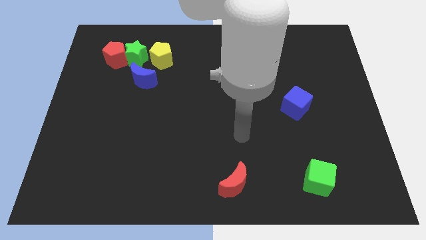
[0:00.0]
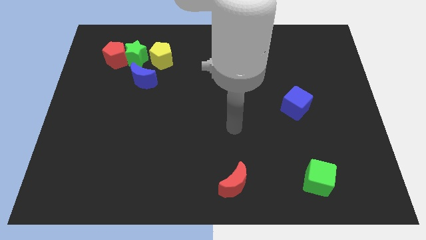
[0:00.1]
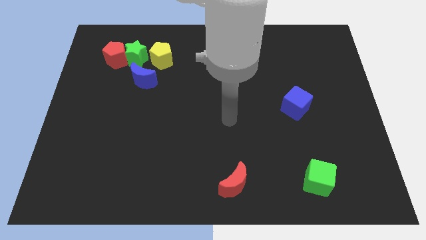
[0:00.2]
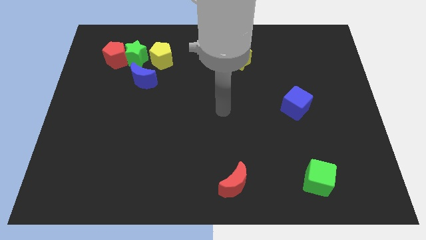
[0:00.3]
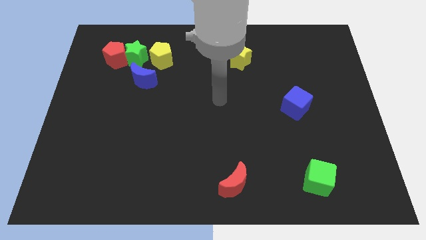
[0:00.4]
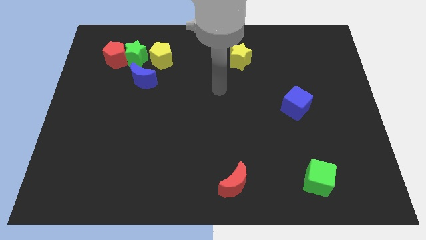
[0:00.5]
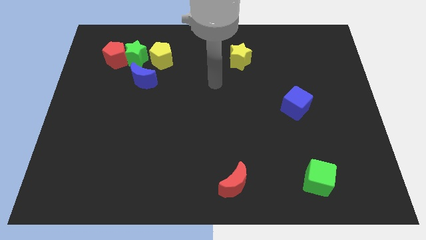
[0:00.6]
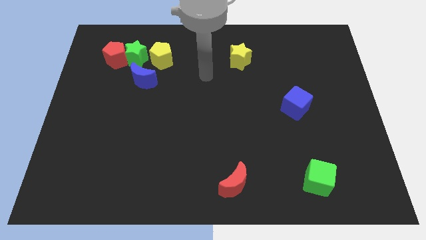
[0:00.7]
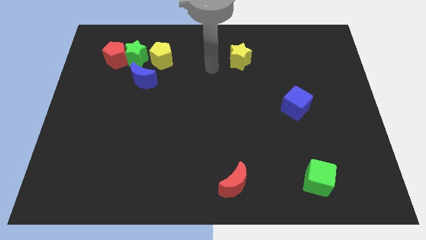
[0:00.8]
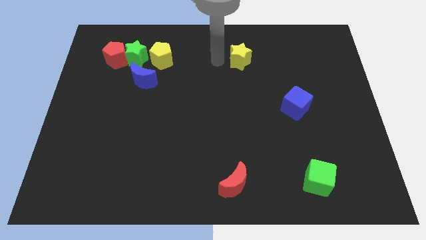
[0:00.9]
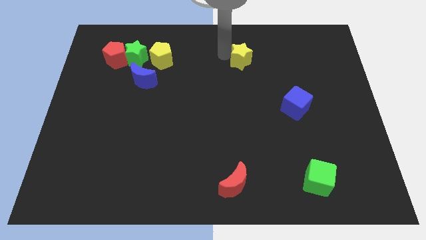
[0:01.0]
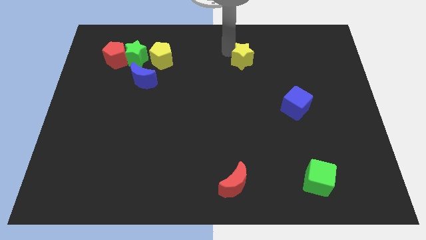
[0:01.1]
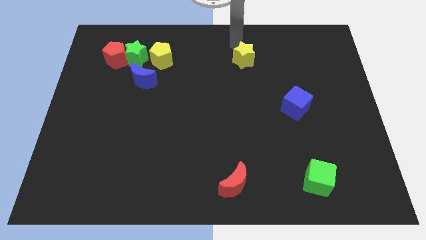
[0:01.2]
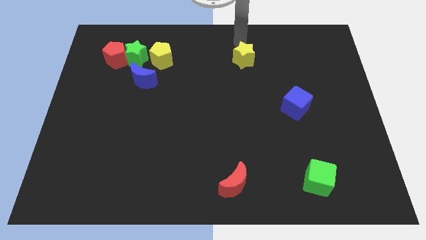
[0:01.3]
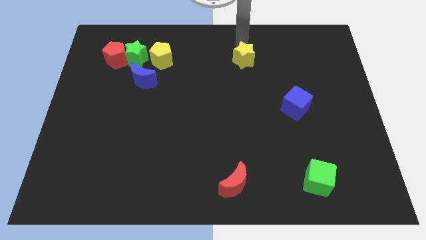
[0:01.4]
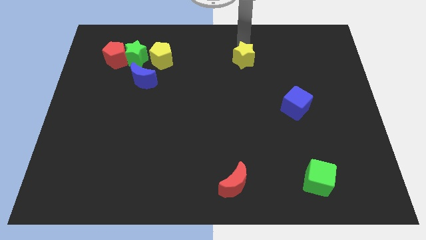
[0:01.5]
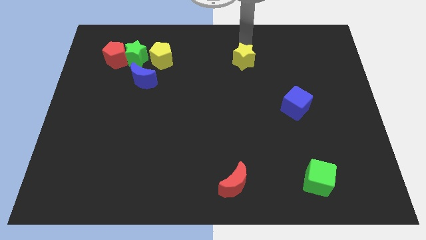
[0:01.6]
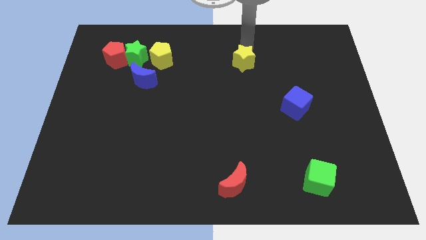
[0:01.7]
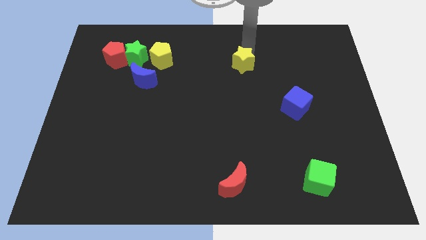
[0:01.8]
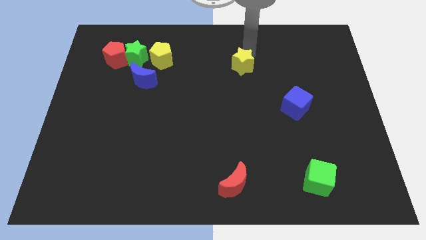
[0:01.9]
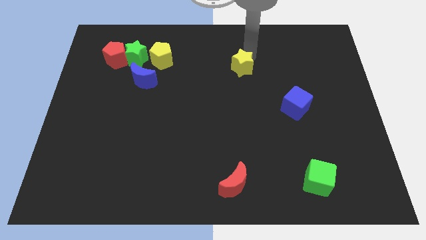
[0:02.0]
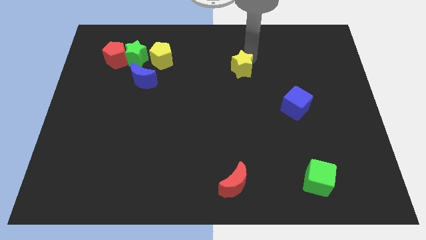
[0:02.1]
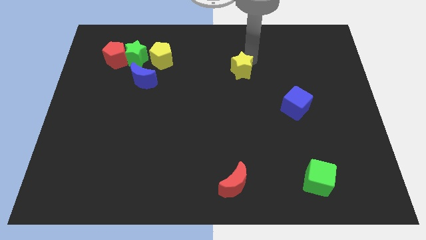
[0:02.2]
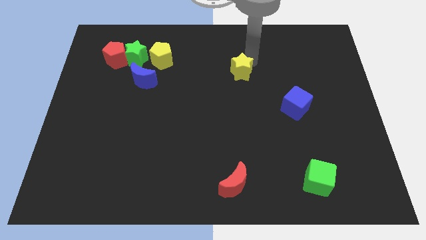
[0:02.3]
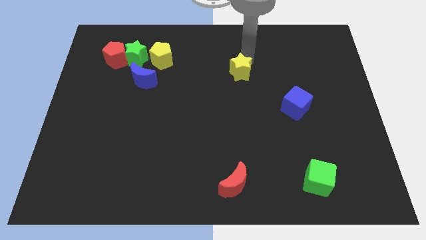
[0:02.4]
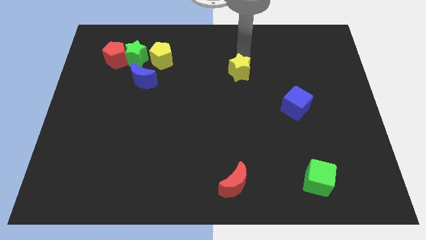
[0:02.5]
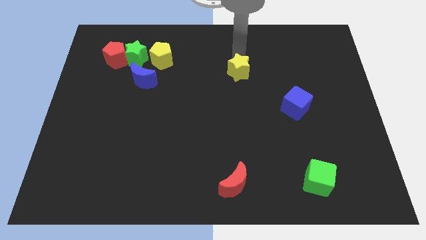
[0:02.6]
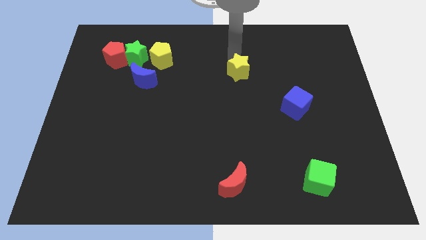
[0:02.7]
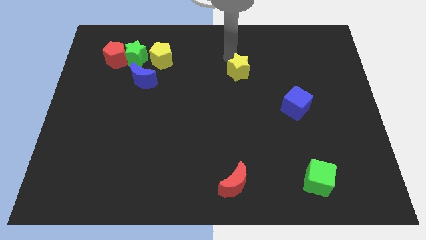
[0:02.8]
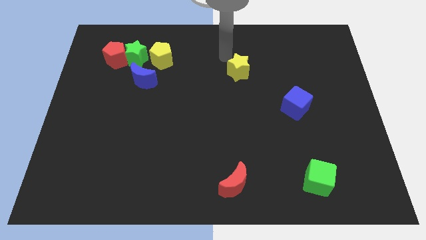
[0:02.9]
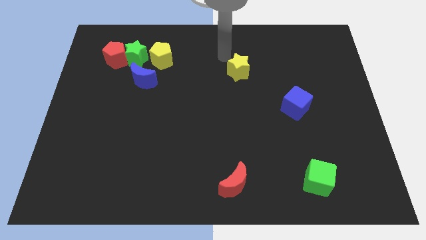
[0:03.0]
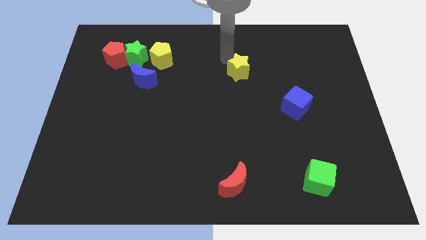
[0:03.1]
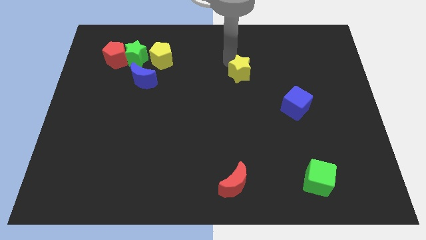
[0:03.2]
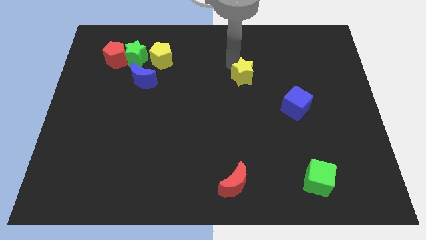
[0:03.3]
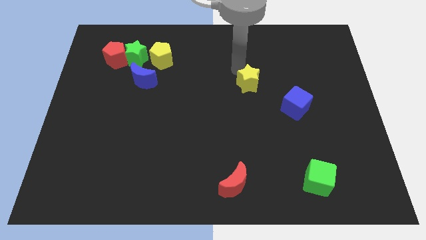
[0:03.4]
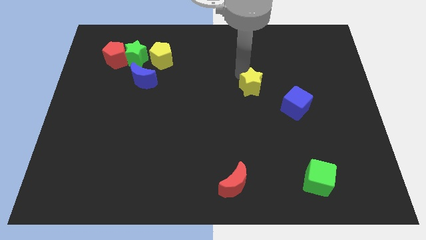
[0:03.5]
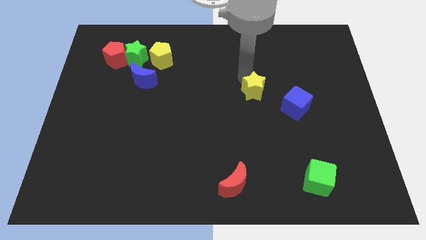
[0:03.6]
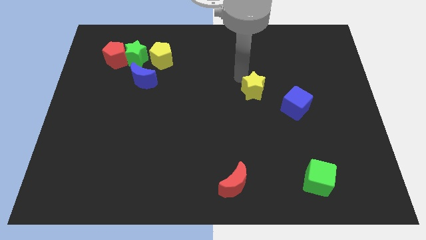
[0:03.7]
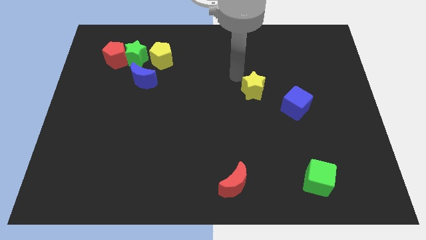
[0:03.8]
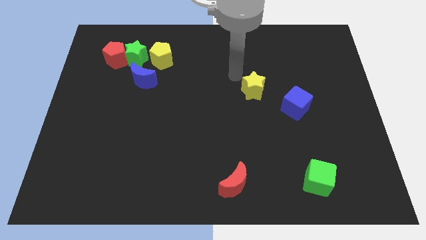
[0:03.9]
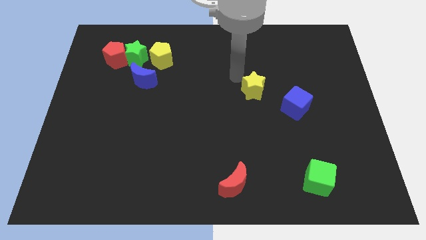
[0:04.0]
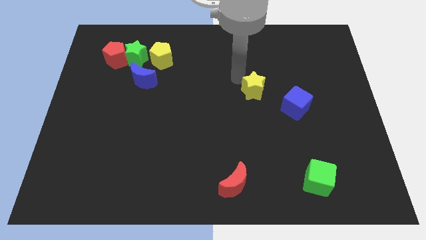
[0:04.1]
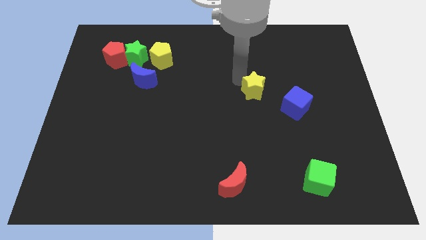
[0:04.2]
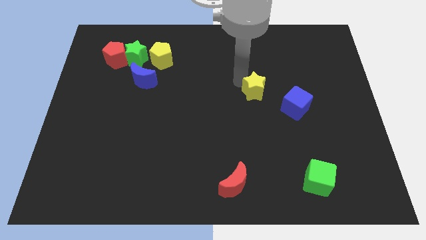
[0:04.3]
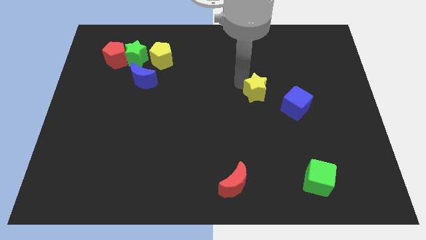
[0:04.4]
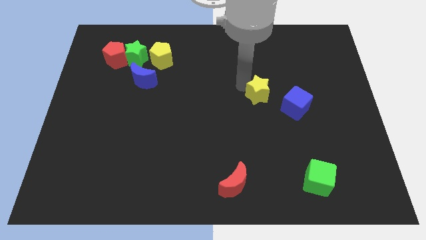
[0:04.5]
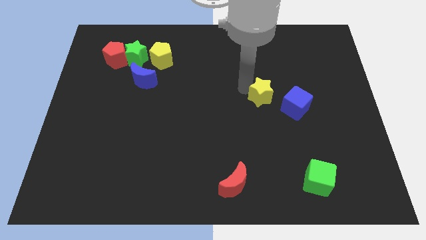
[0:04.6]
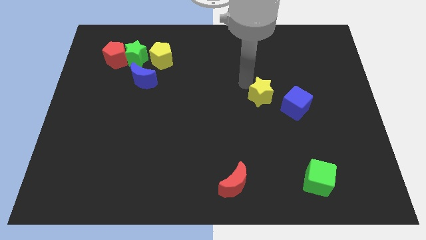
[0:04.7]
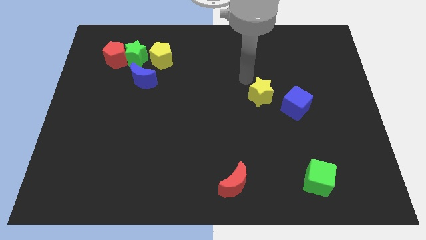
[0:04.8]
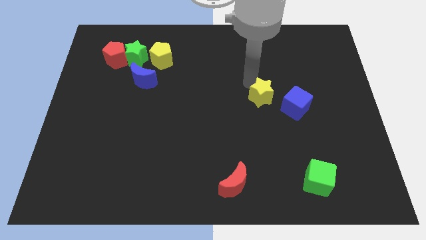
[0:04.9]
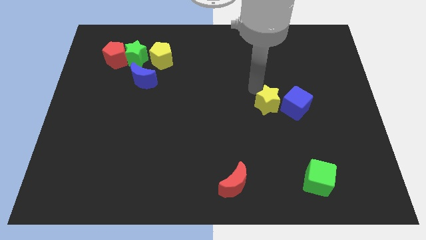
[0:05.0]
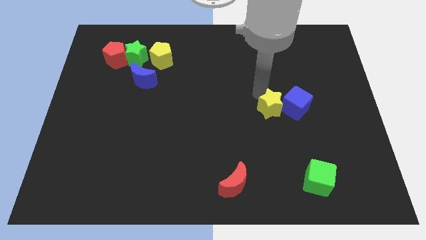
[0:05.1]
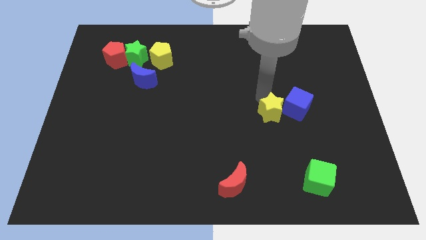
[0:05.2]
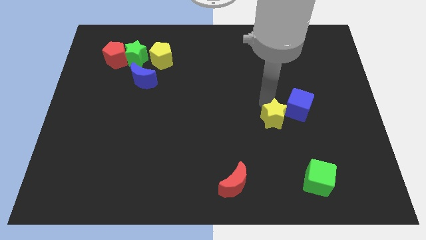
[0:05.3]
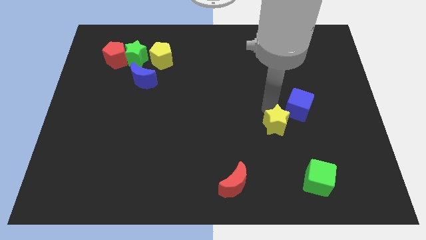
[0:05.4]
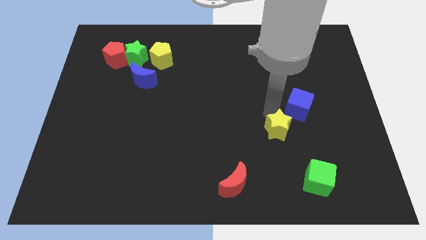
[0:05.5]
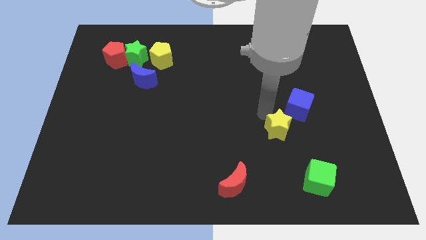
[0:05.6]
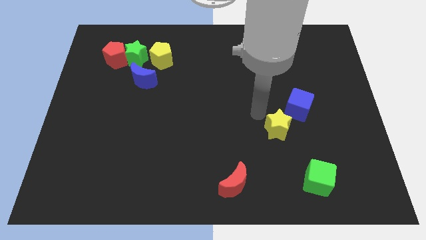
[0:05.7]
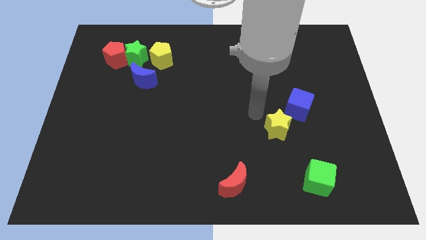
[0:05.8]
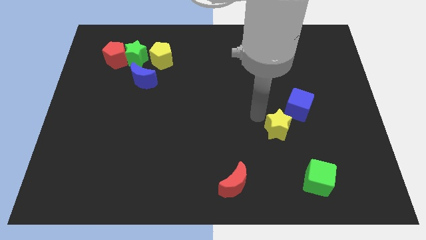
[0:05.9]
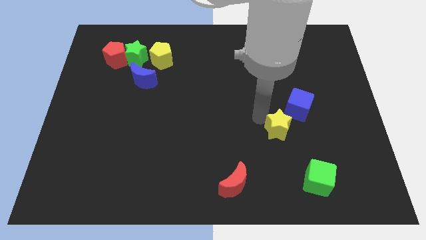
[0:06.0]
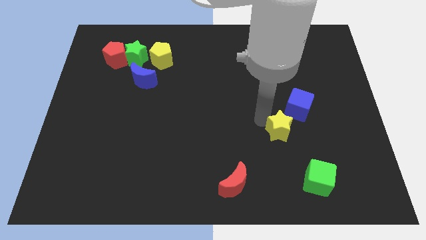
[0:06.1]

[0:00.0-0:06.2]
push the yellow star to the bottom side of the blue cube

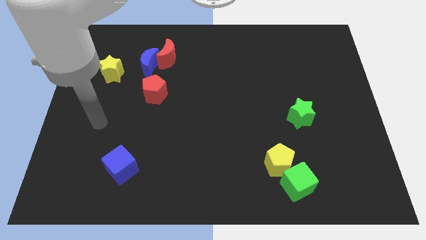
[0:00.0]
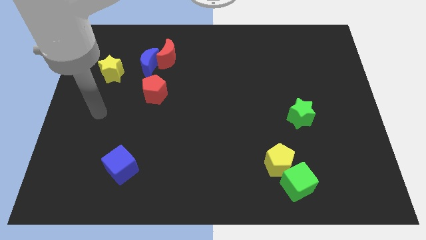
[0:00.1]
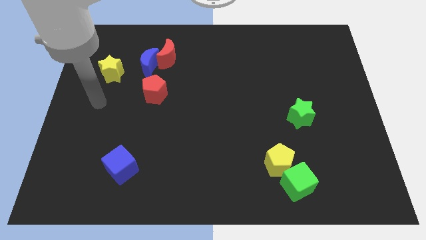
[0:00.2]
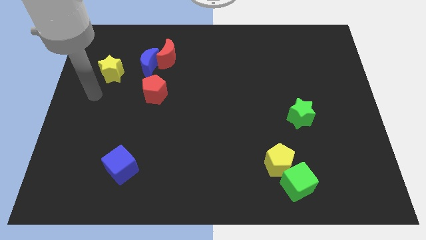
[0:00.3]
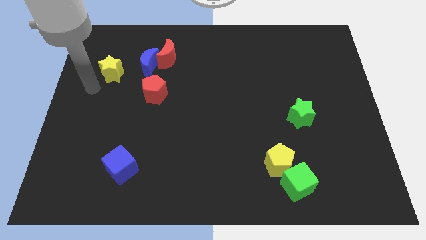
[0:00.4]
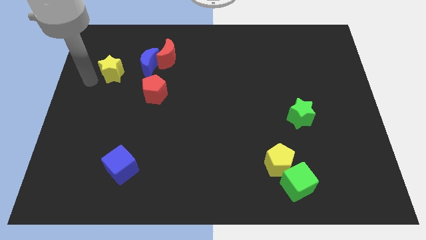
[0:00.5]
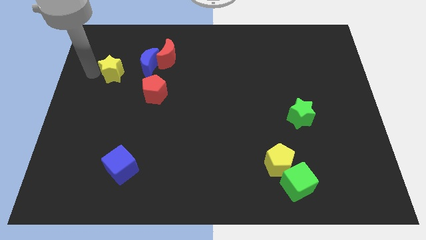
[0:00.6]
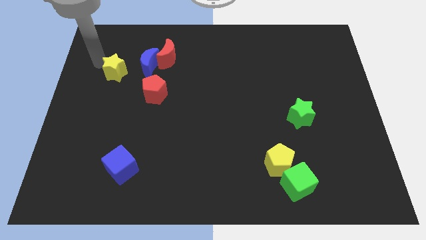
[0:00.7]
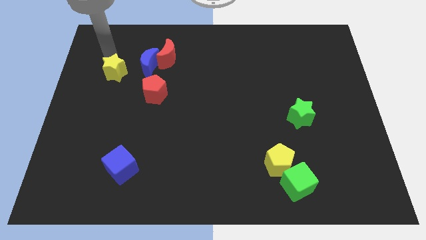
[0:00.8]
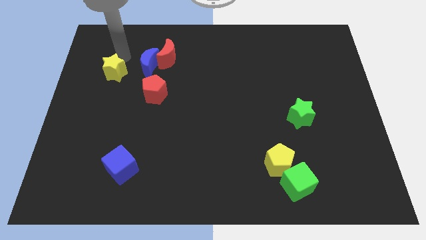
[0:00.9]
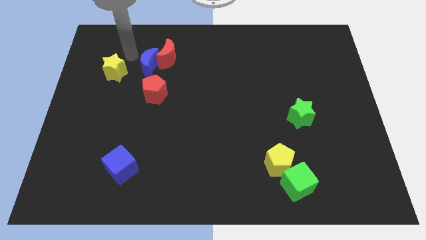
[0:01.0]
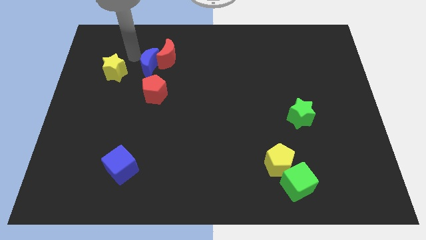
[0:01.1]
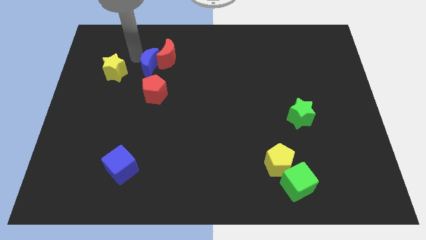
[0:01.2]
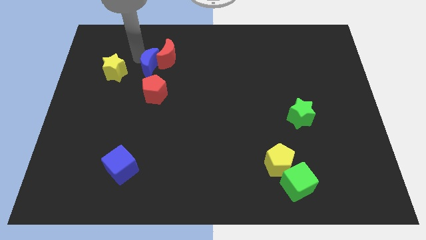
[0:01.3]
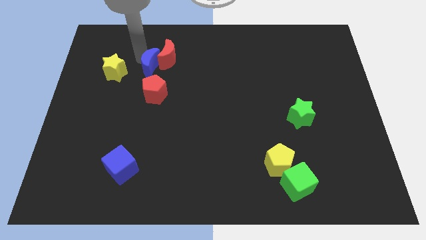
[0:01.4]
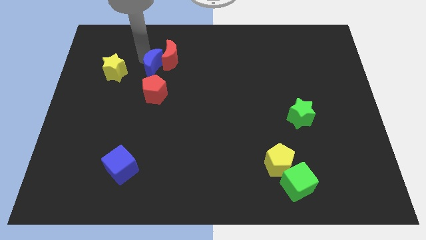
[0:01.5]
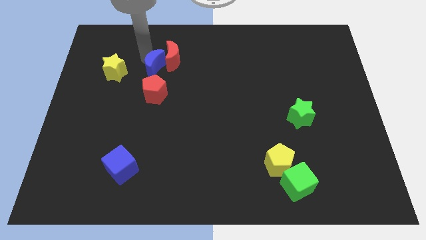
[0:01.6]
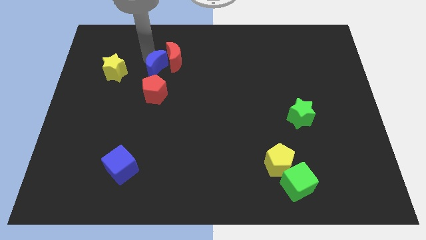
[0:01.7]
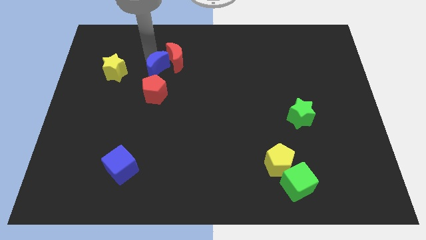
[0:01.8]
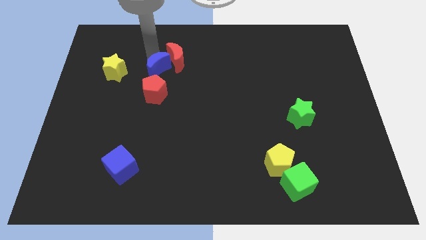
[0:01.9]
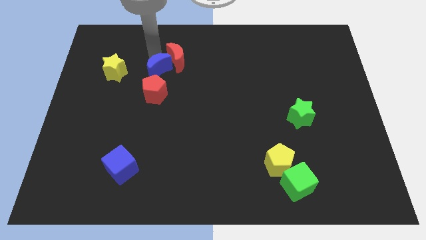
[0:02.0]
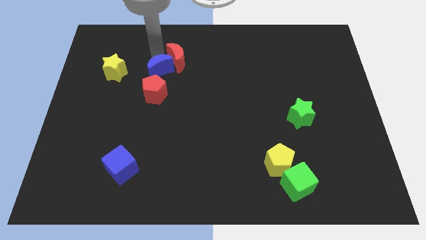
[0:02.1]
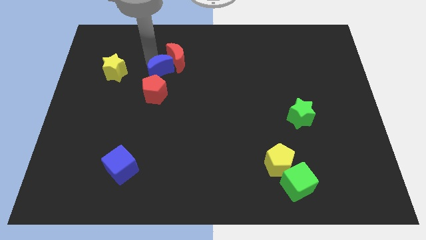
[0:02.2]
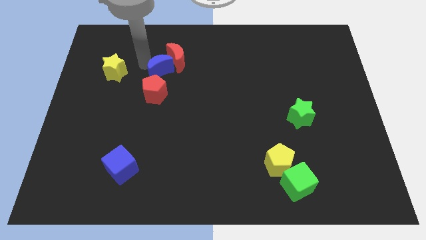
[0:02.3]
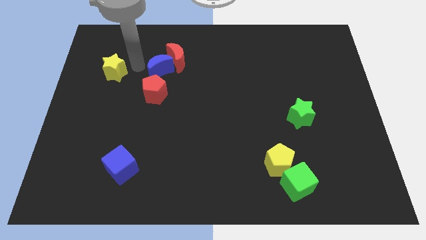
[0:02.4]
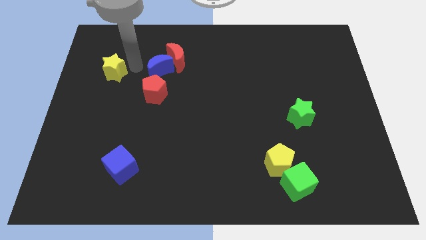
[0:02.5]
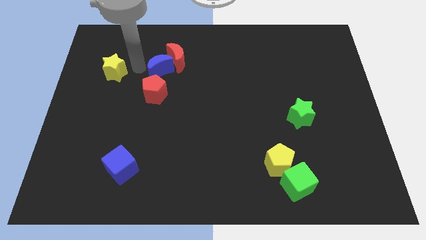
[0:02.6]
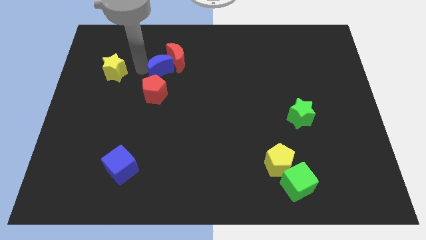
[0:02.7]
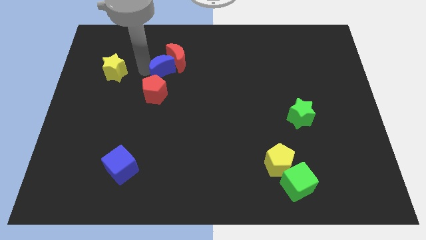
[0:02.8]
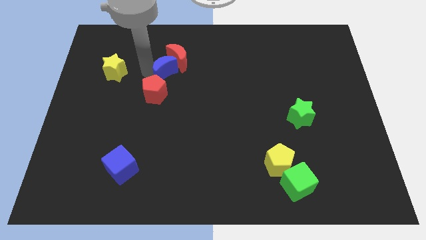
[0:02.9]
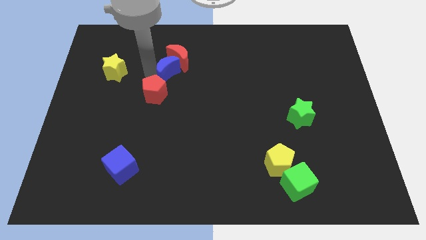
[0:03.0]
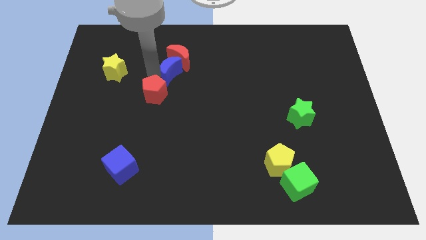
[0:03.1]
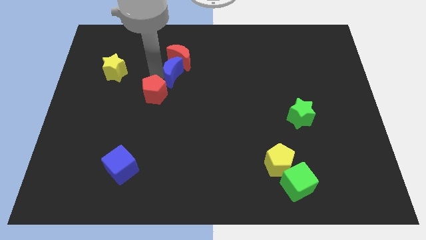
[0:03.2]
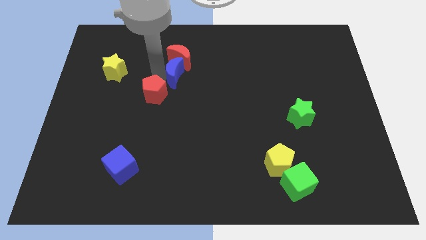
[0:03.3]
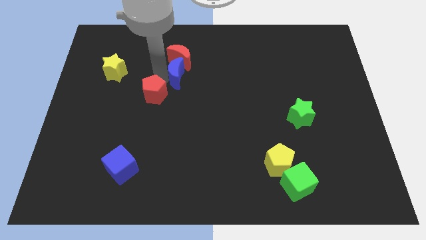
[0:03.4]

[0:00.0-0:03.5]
push the blue moon to the bottom right side of the red moon
